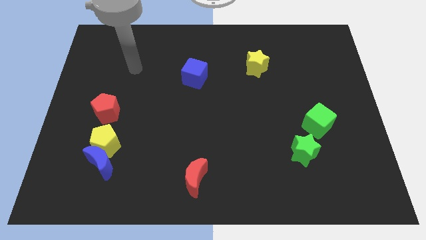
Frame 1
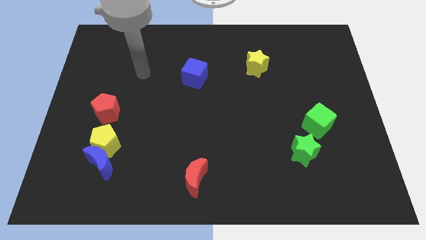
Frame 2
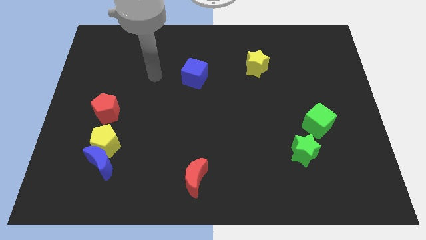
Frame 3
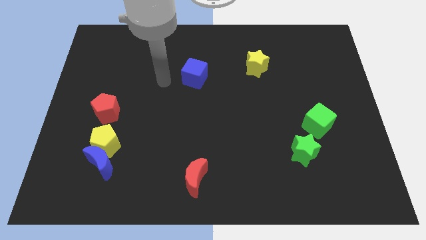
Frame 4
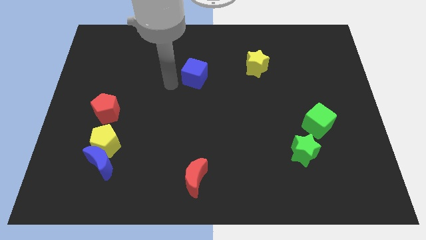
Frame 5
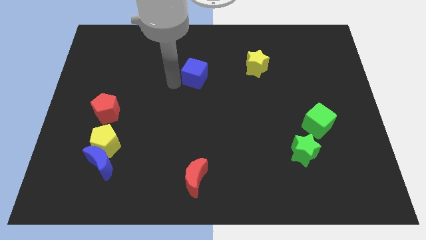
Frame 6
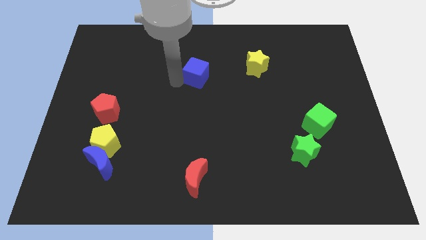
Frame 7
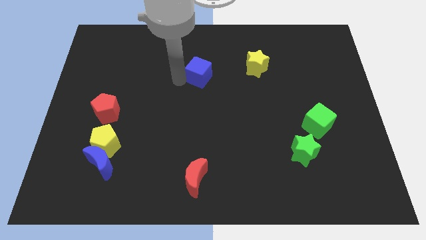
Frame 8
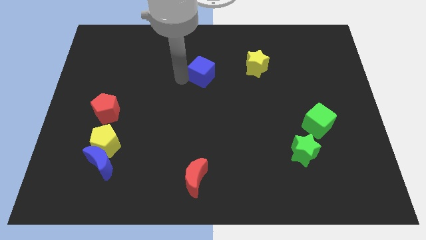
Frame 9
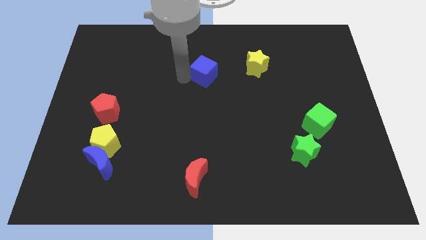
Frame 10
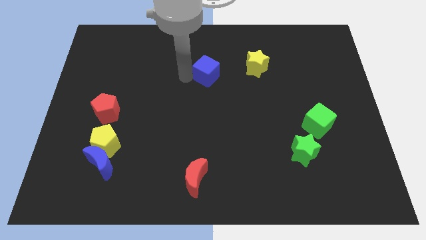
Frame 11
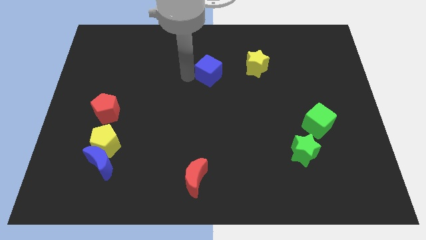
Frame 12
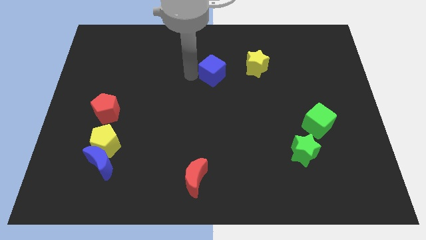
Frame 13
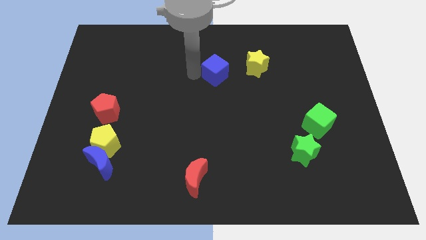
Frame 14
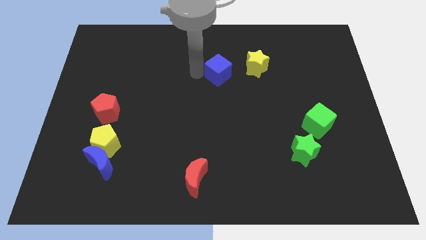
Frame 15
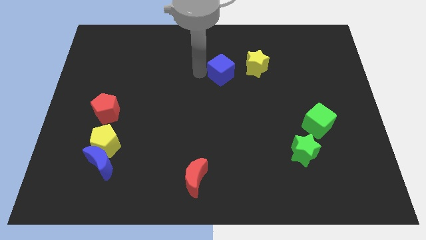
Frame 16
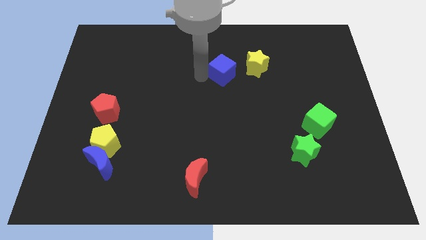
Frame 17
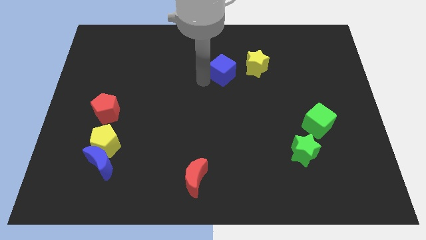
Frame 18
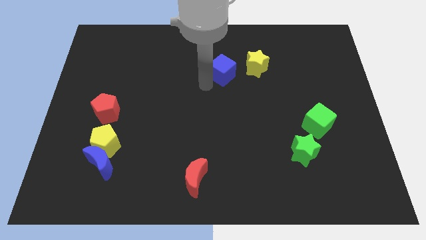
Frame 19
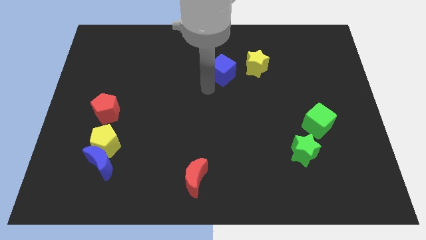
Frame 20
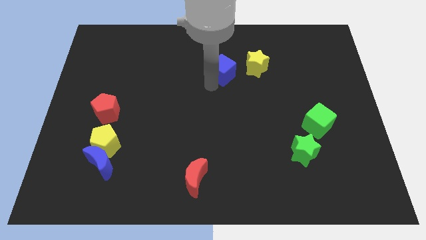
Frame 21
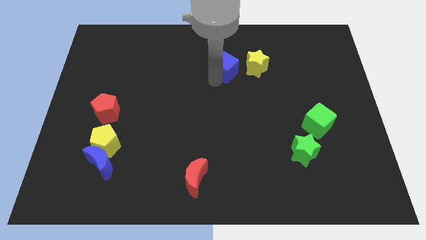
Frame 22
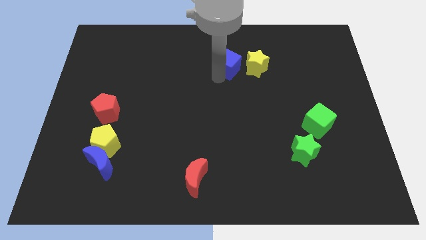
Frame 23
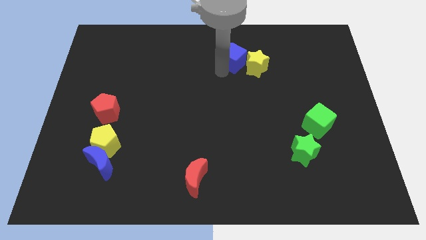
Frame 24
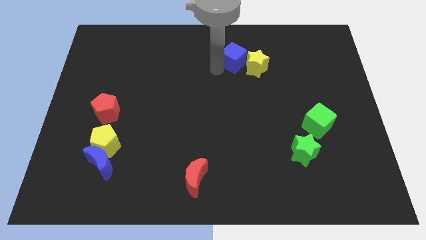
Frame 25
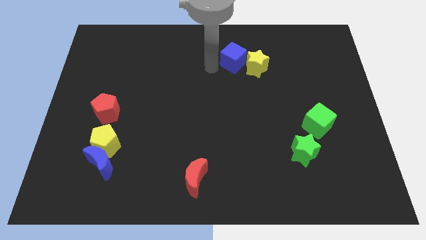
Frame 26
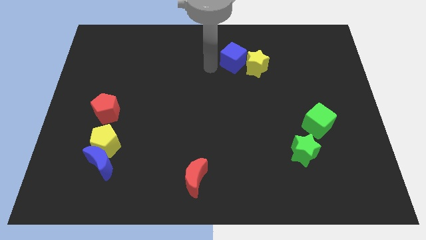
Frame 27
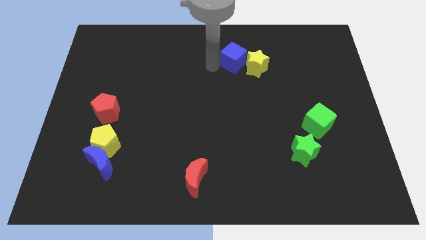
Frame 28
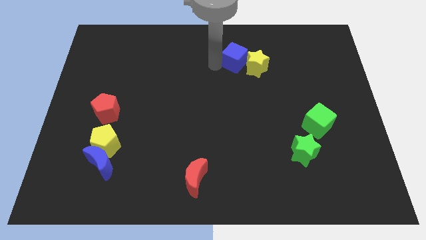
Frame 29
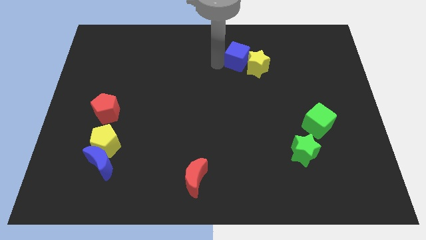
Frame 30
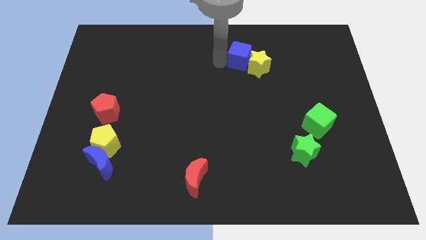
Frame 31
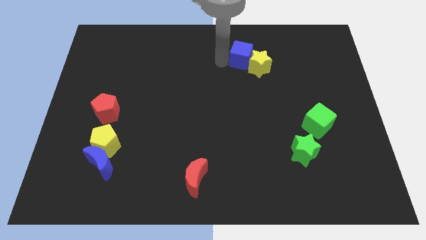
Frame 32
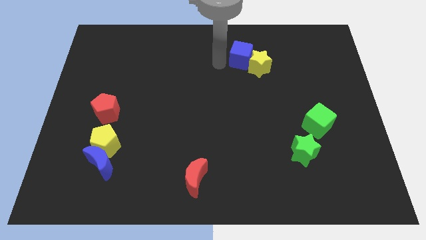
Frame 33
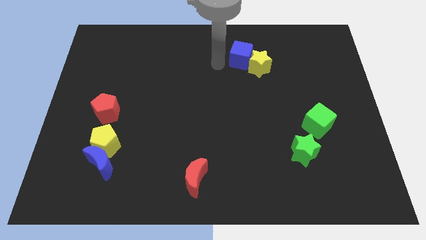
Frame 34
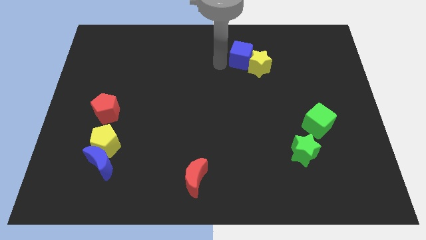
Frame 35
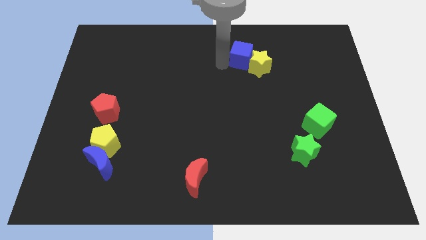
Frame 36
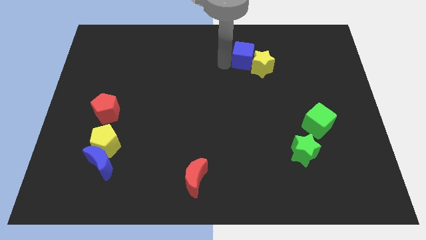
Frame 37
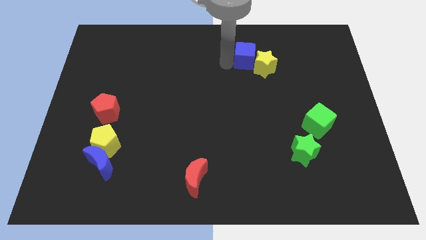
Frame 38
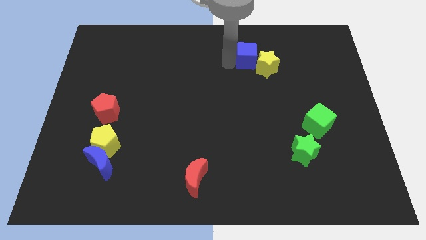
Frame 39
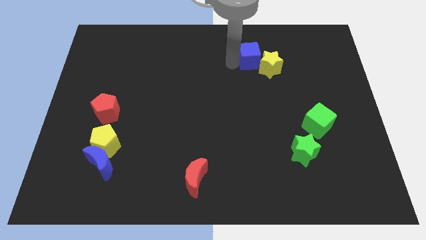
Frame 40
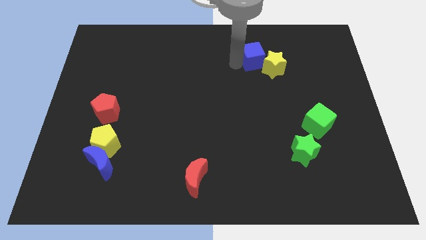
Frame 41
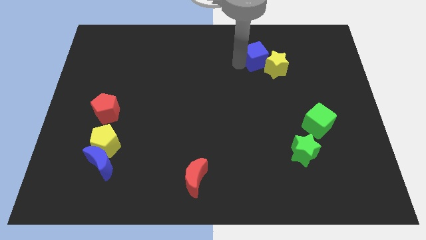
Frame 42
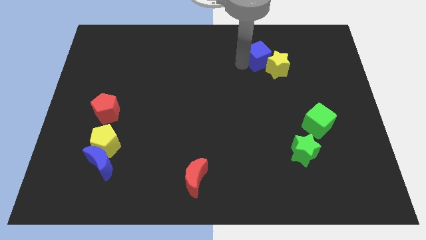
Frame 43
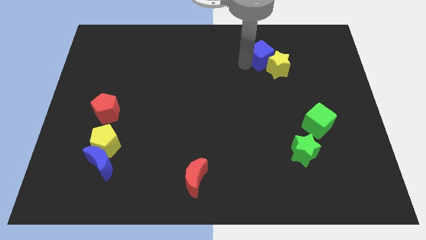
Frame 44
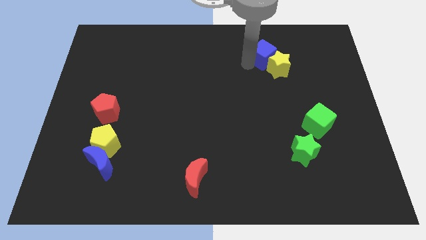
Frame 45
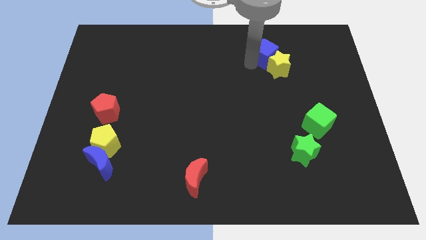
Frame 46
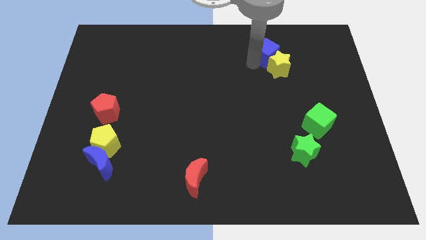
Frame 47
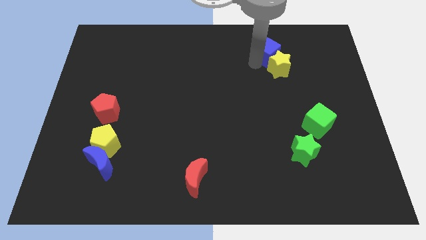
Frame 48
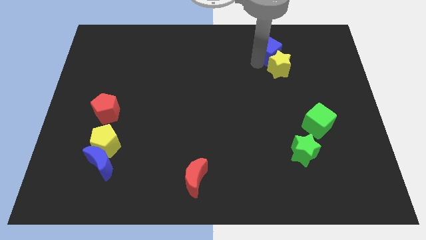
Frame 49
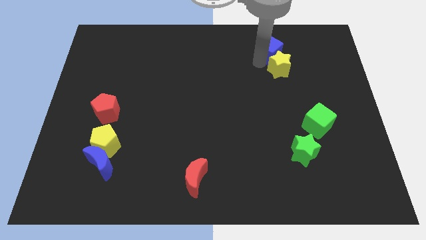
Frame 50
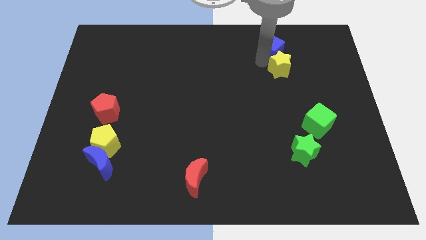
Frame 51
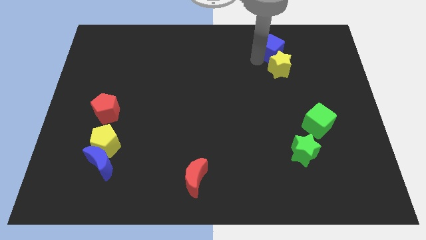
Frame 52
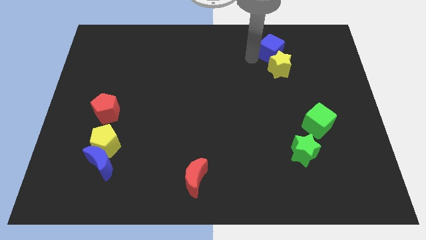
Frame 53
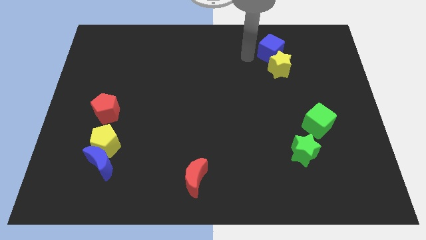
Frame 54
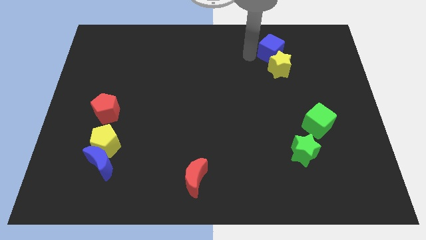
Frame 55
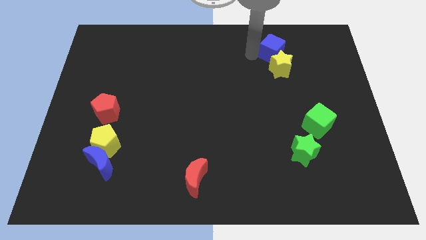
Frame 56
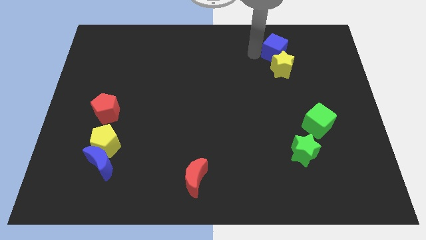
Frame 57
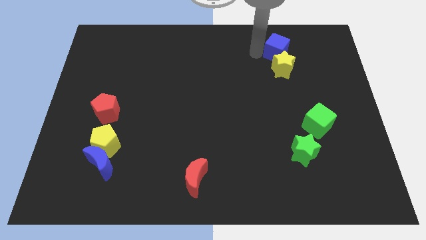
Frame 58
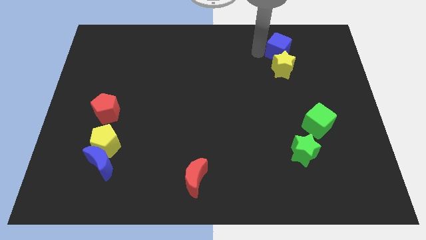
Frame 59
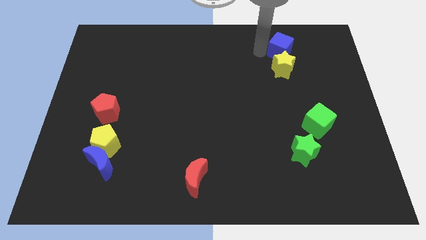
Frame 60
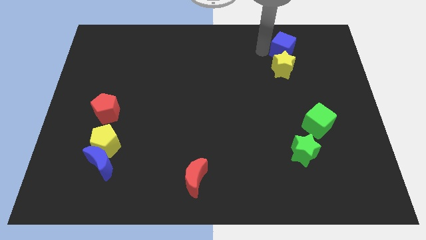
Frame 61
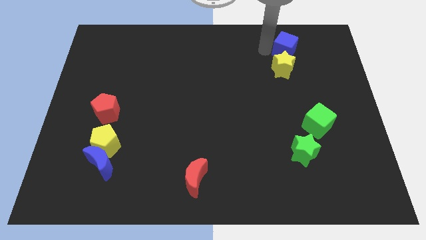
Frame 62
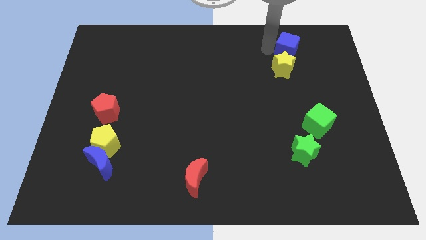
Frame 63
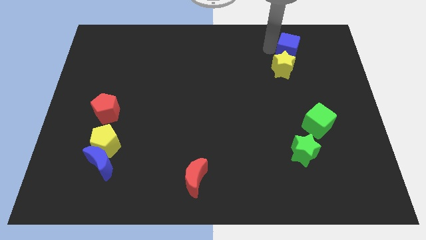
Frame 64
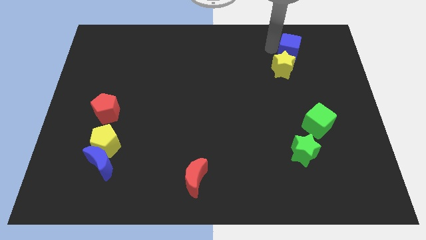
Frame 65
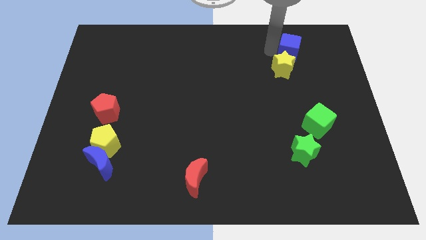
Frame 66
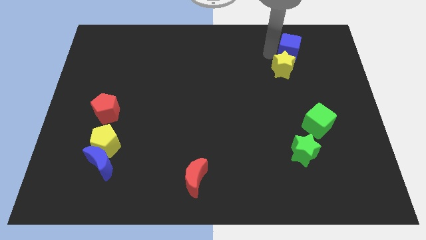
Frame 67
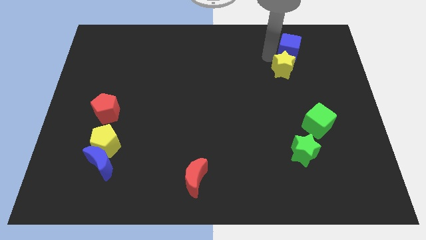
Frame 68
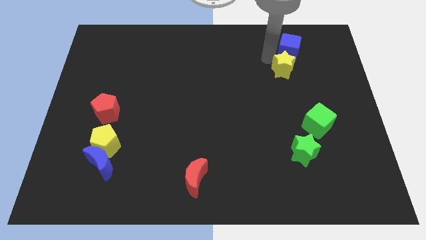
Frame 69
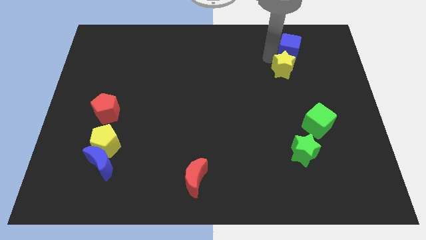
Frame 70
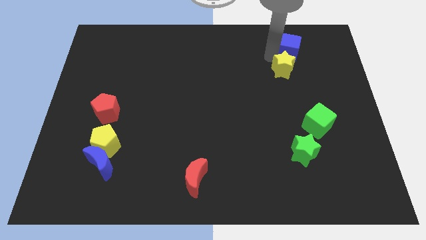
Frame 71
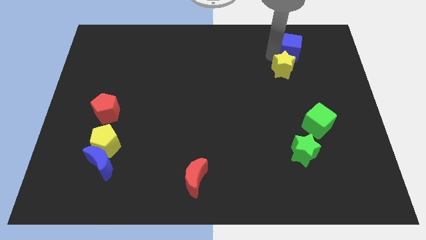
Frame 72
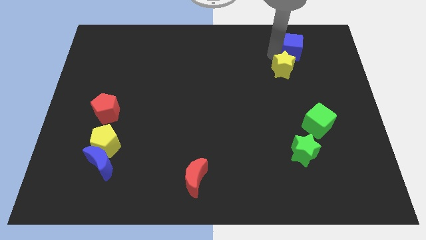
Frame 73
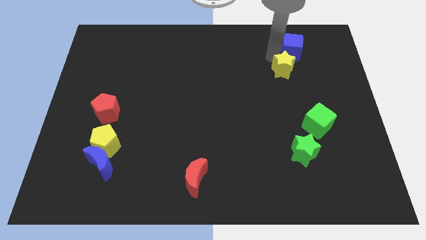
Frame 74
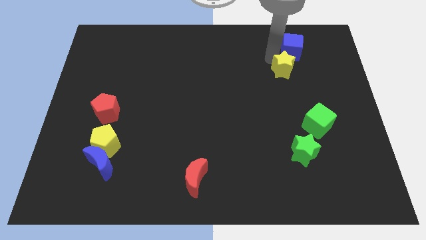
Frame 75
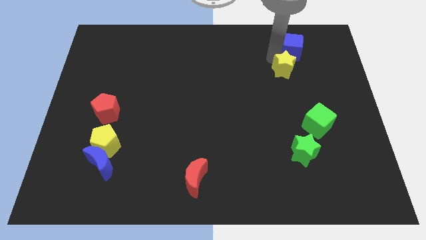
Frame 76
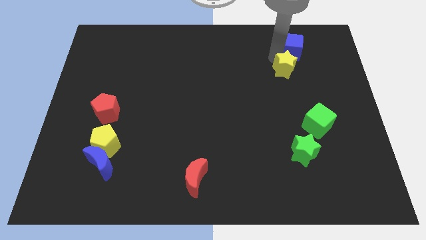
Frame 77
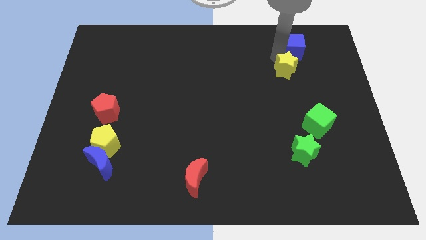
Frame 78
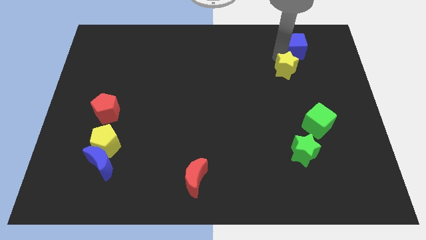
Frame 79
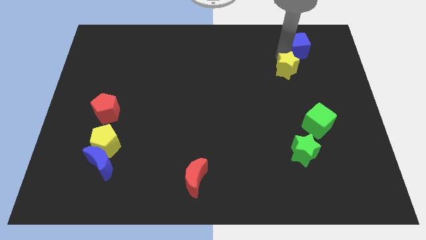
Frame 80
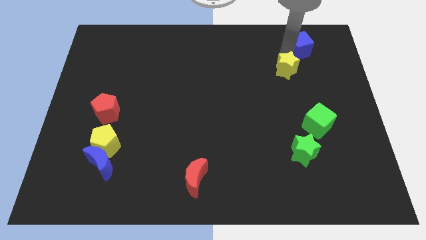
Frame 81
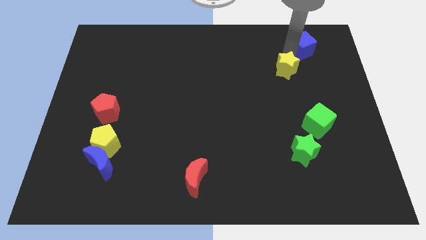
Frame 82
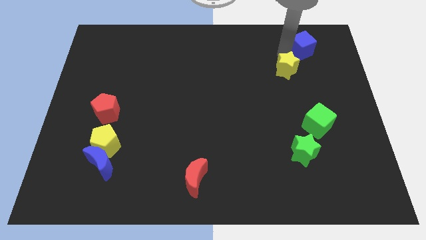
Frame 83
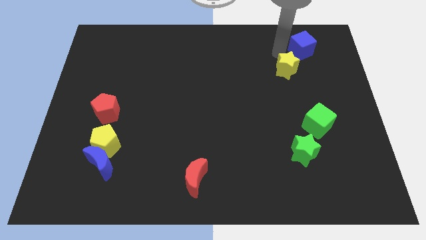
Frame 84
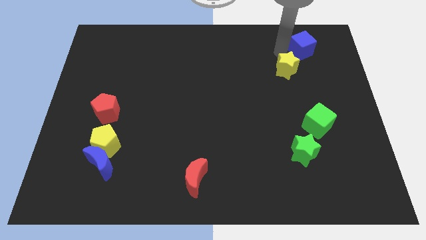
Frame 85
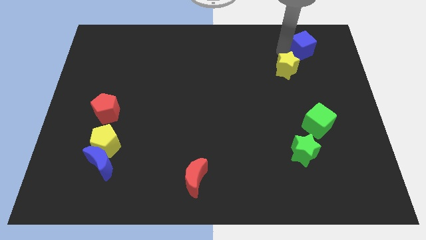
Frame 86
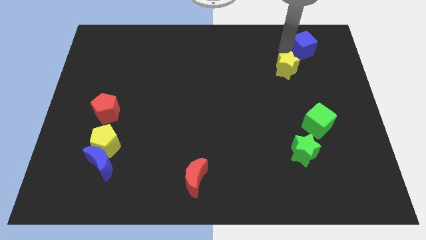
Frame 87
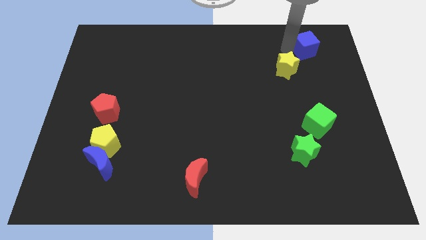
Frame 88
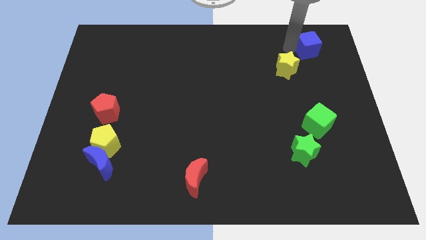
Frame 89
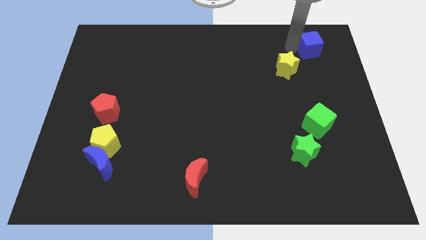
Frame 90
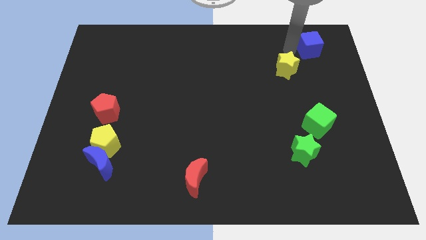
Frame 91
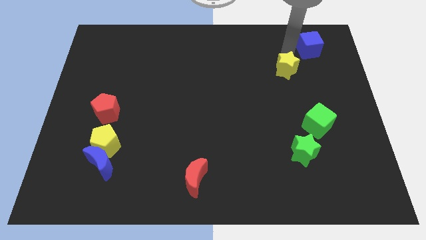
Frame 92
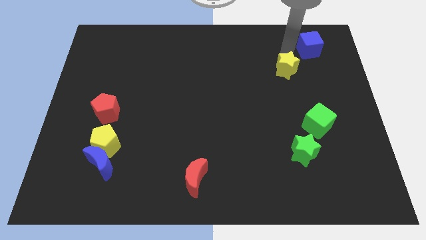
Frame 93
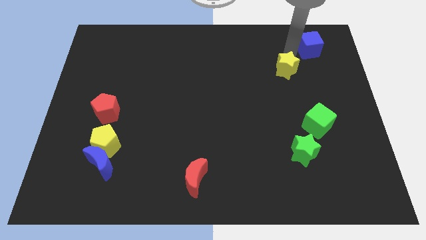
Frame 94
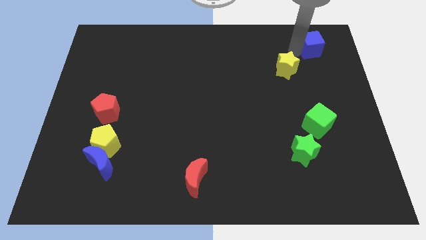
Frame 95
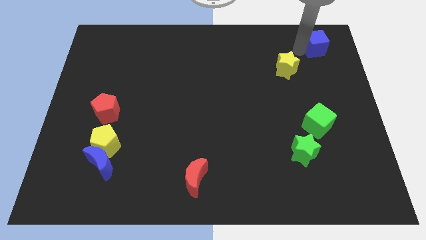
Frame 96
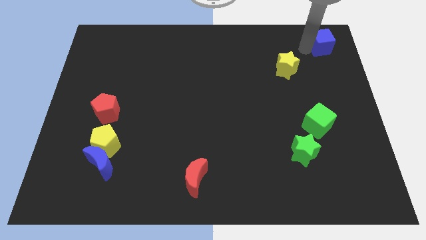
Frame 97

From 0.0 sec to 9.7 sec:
put the blue cube to the upper right corner
